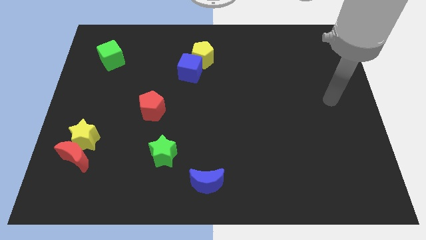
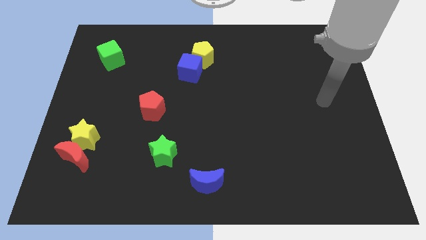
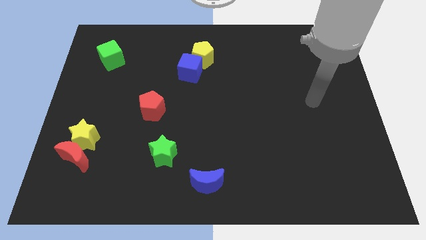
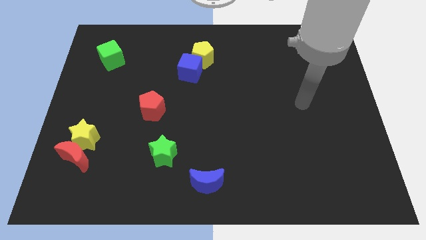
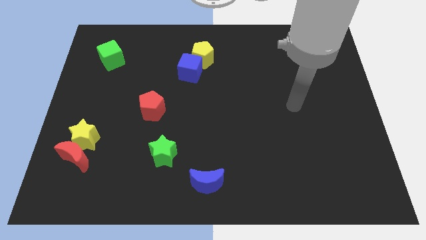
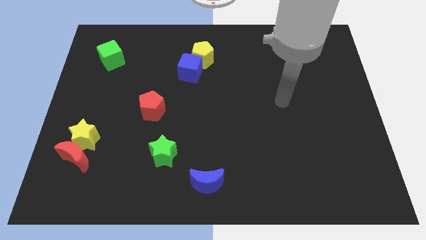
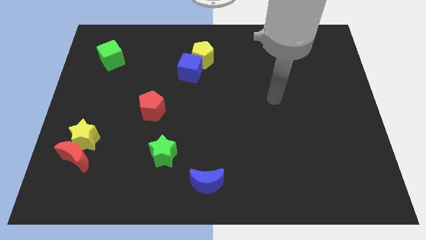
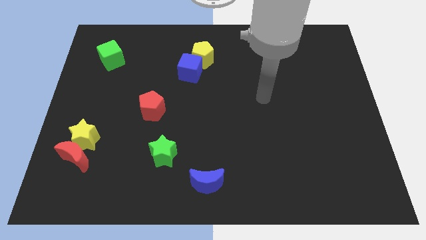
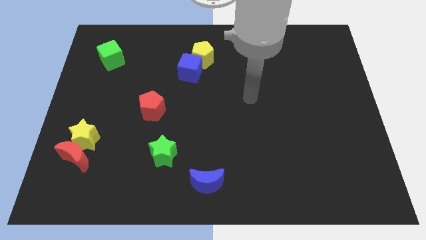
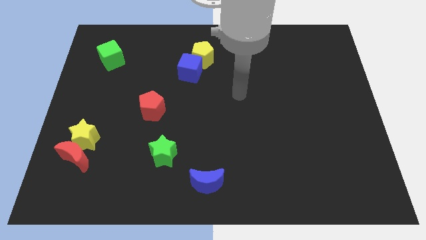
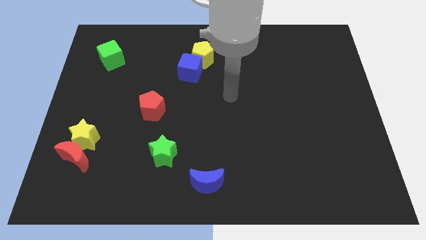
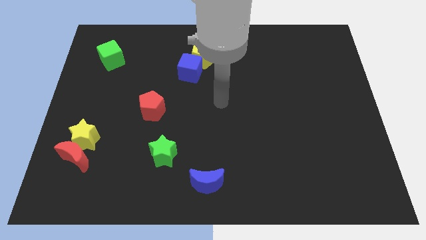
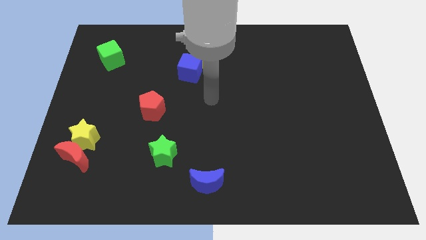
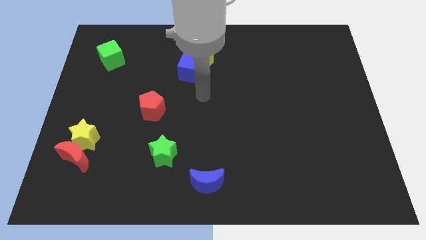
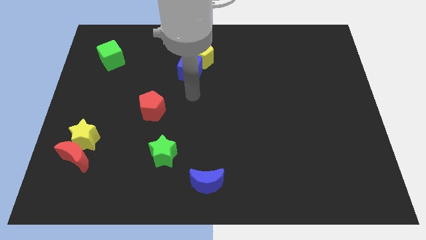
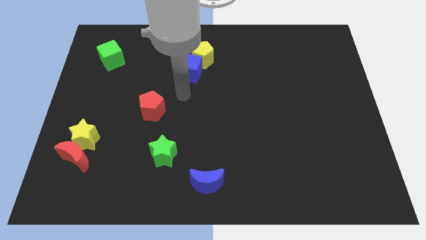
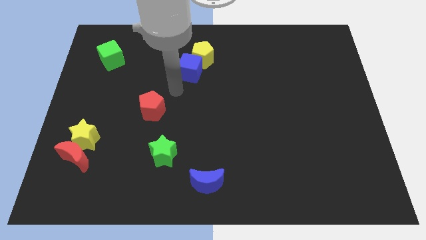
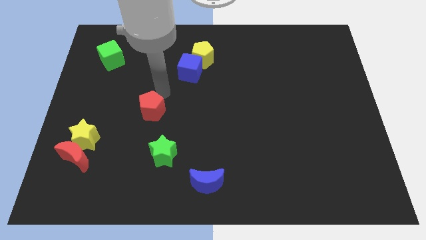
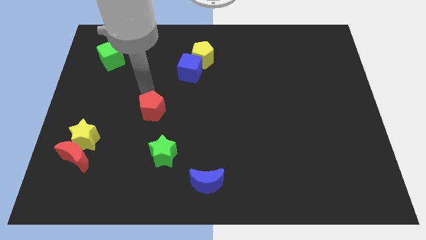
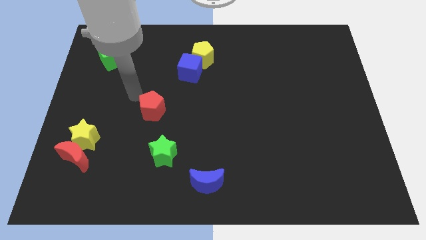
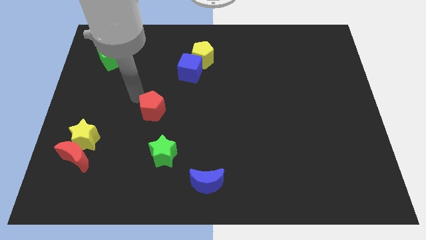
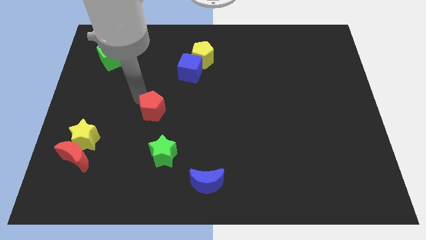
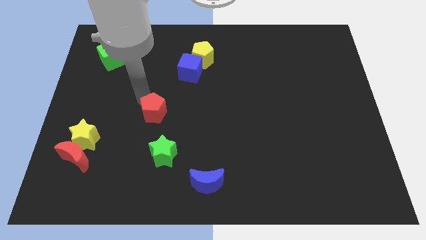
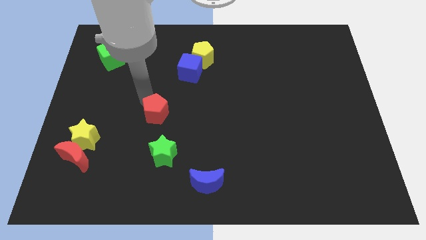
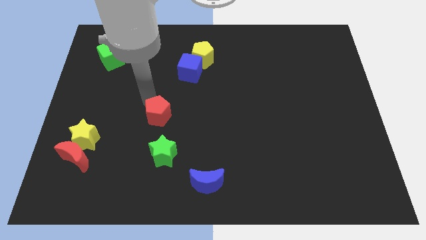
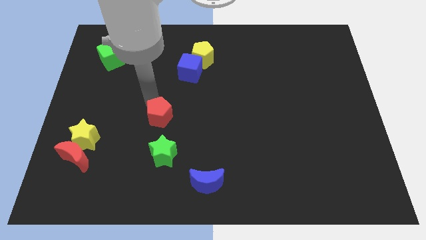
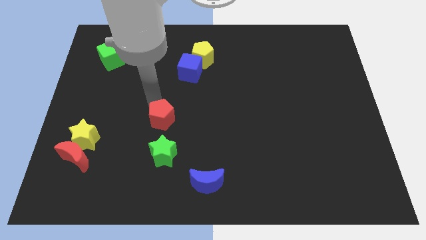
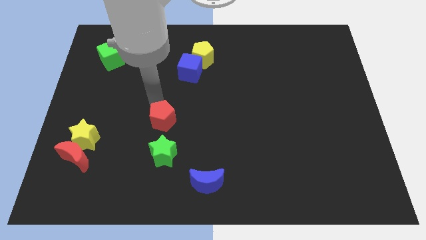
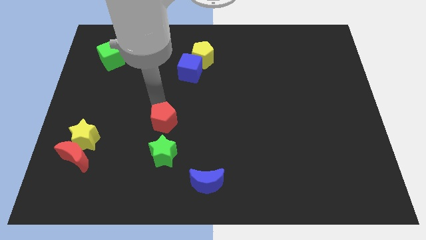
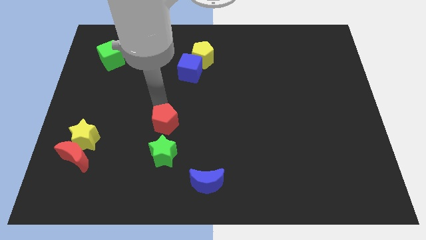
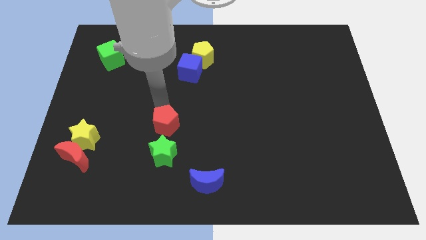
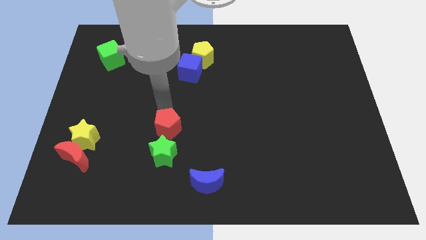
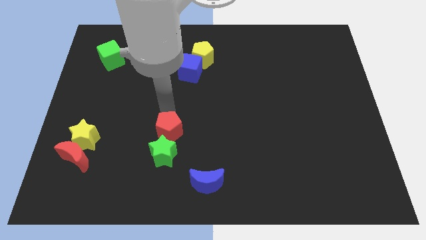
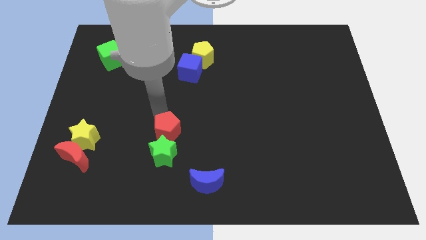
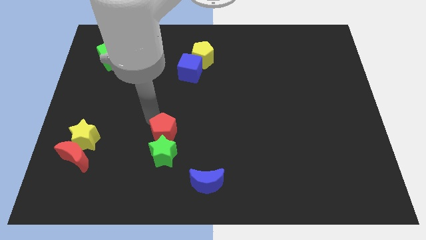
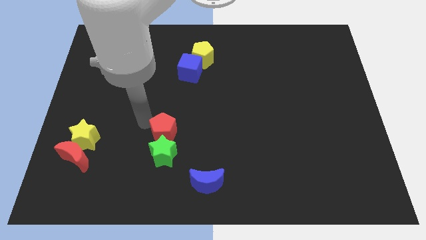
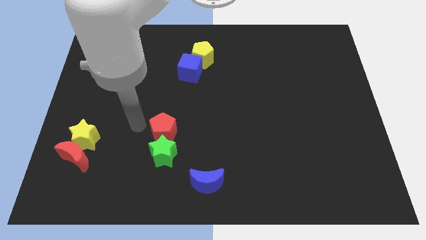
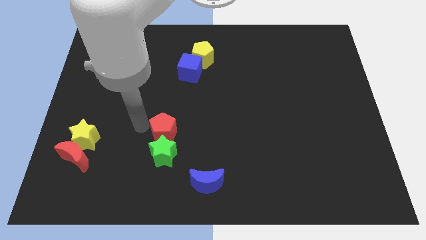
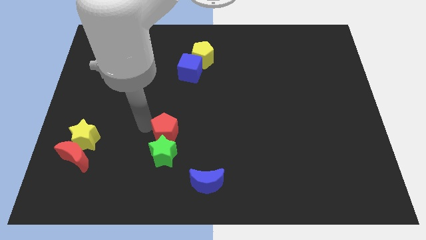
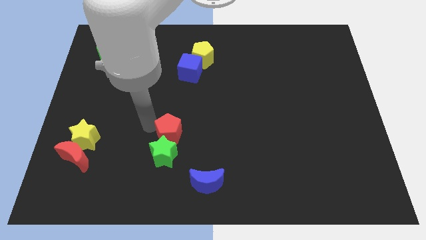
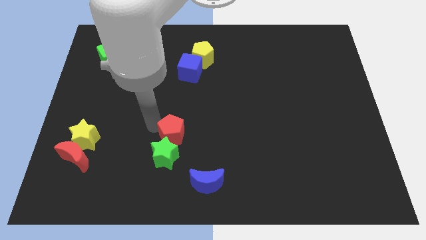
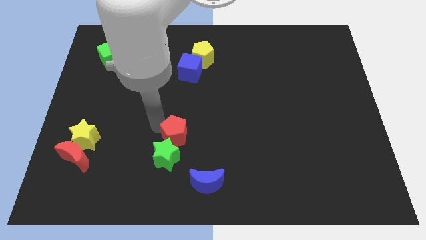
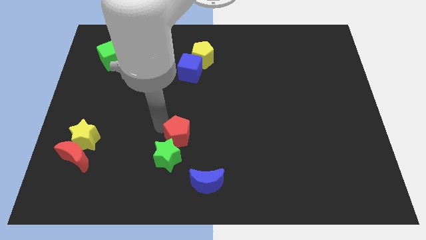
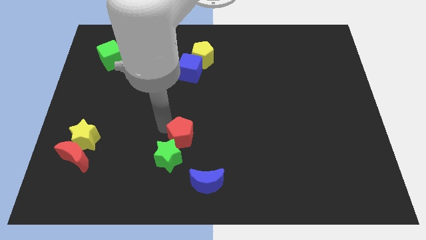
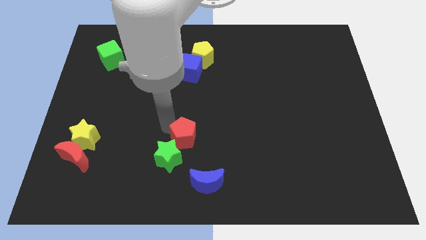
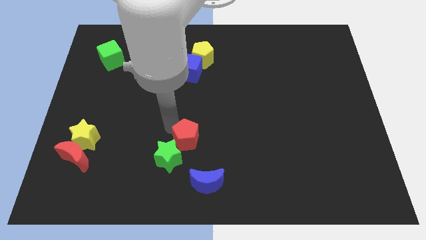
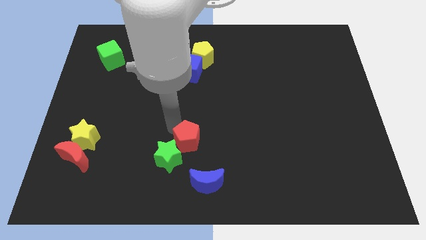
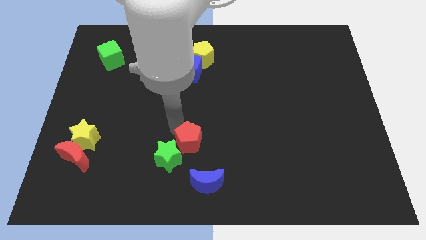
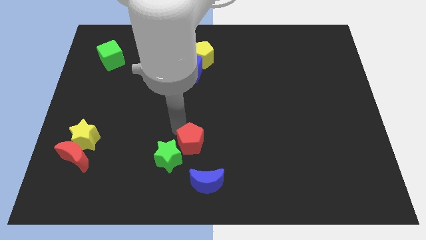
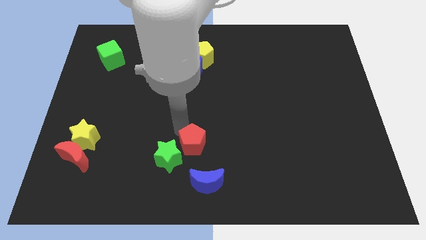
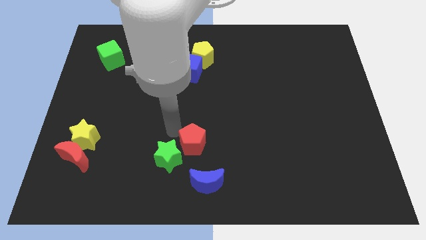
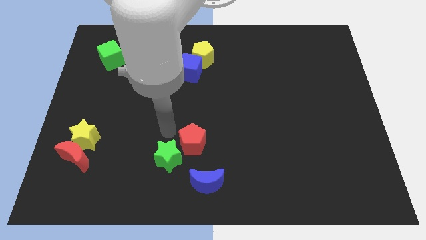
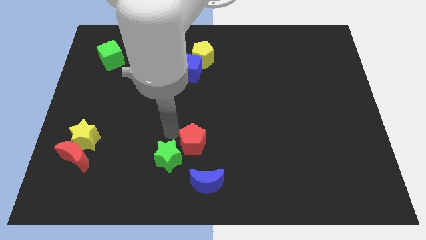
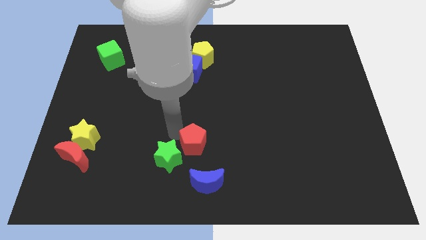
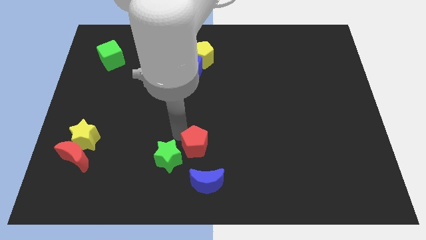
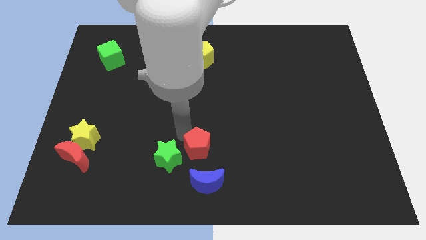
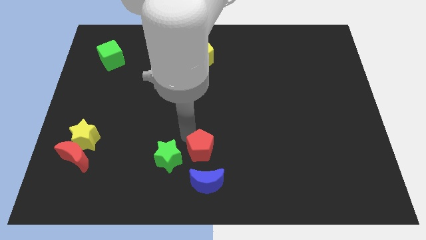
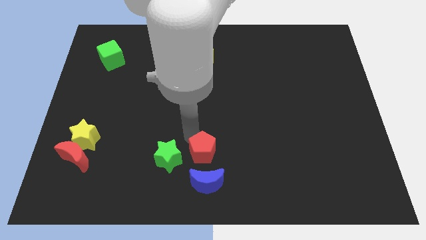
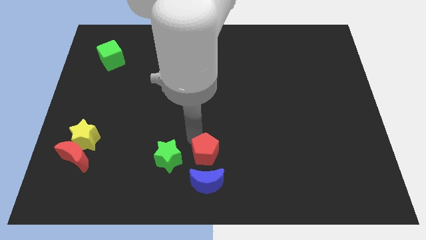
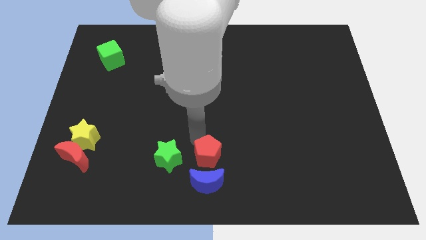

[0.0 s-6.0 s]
move the red pentagon to the top right of the blue moon

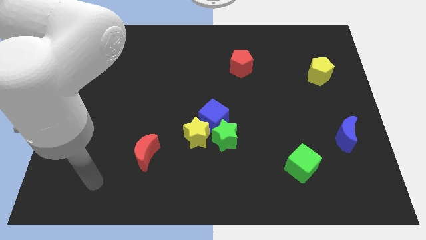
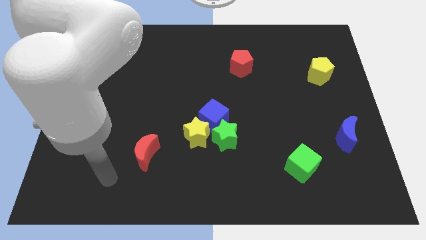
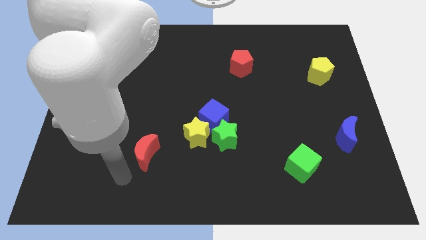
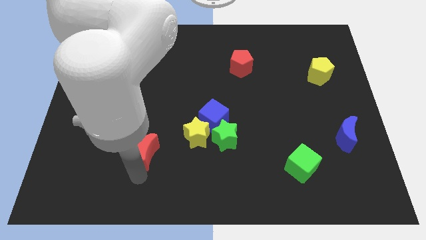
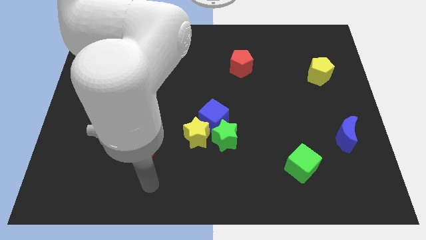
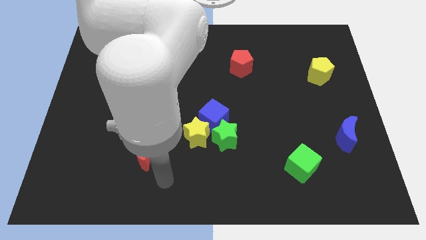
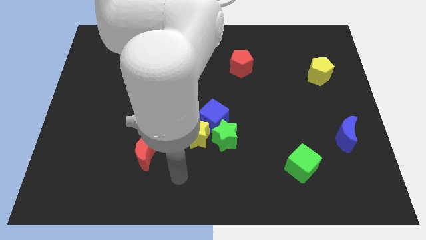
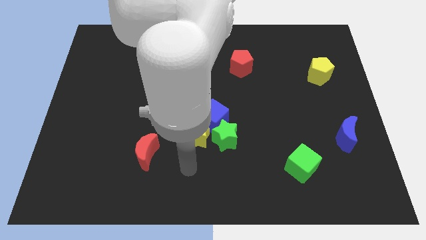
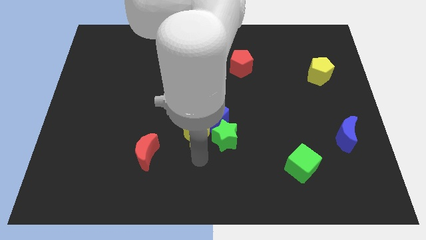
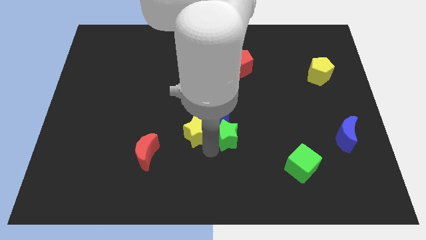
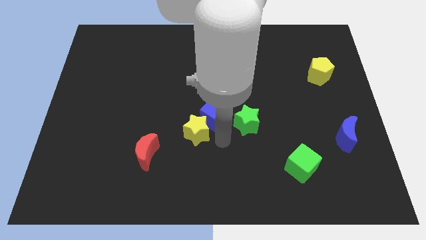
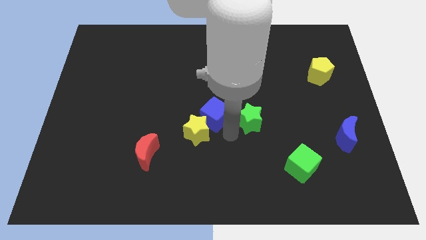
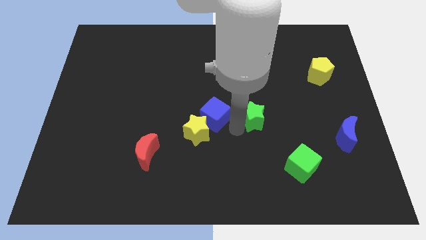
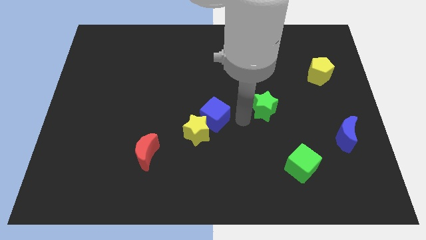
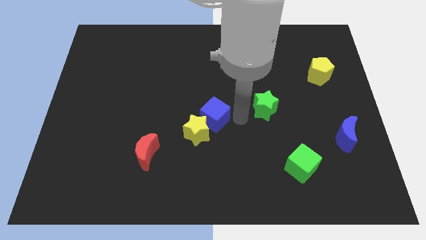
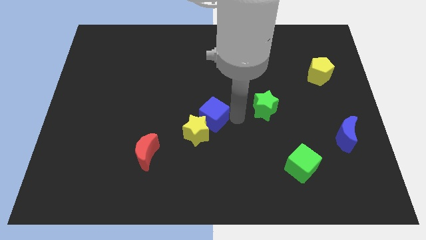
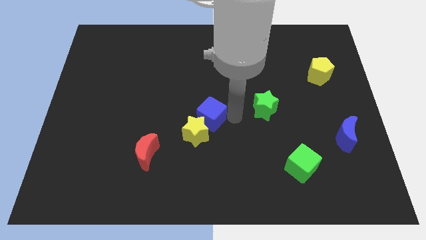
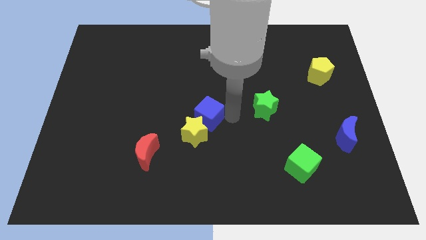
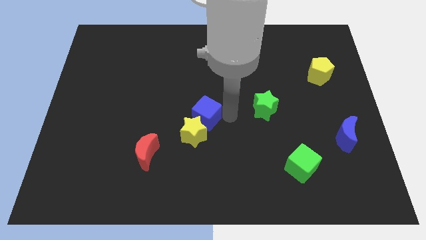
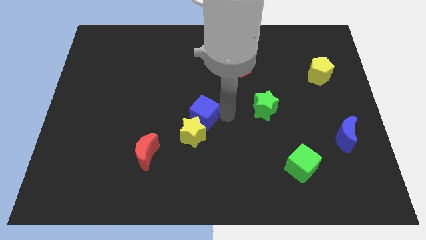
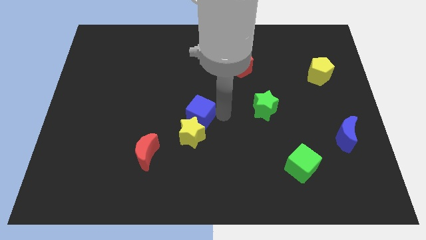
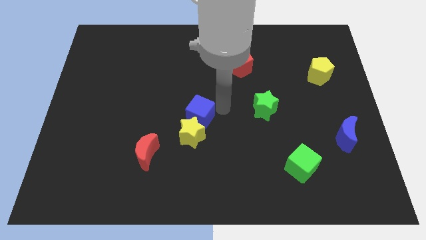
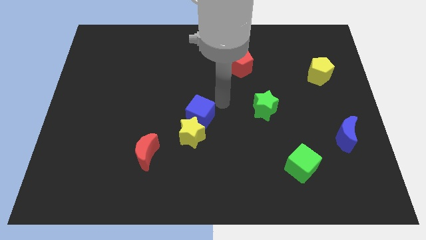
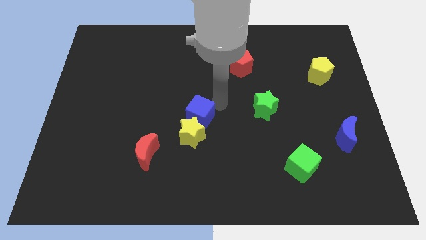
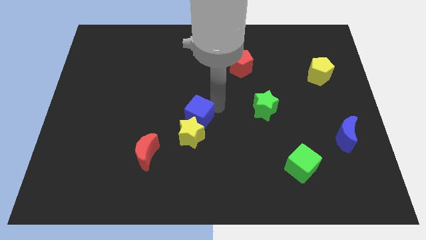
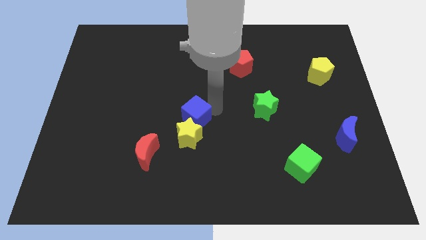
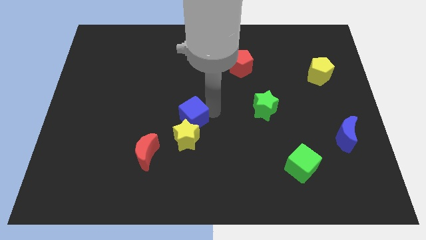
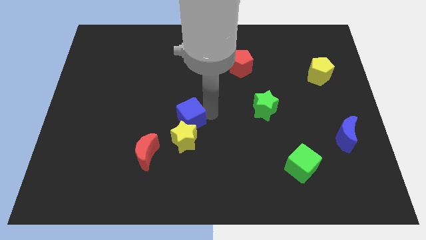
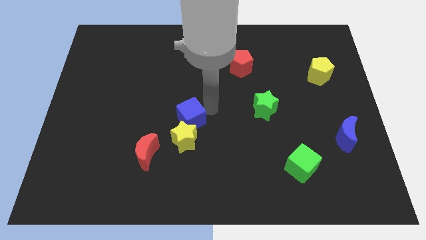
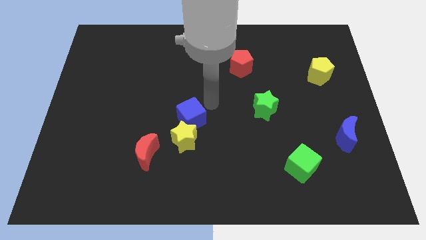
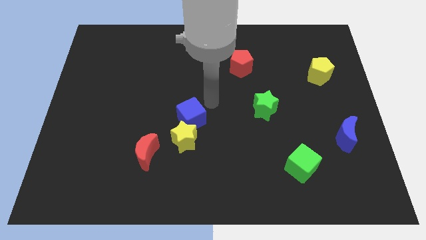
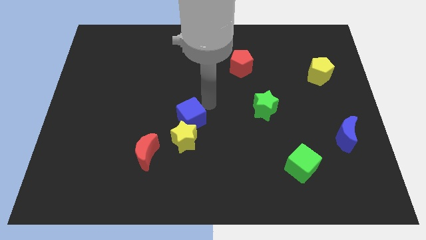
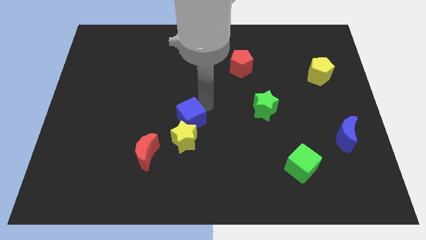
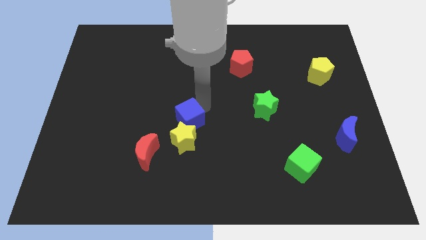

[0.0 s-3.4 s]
slide the blue cube to the top right side of the red moon
